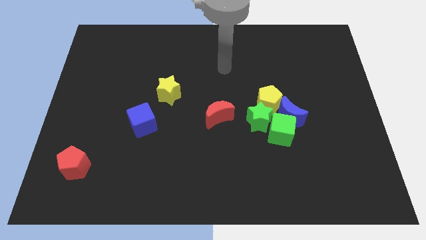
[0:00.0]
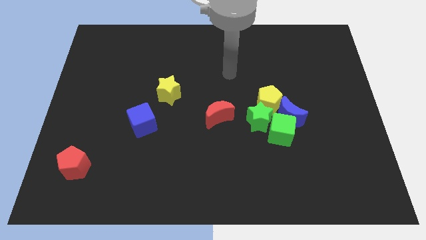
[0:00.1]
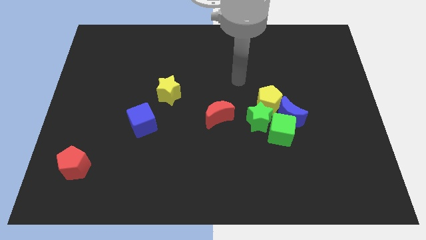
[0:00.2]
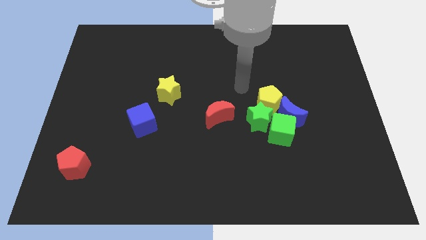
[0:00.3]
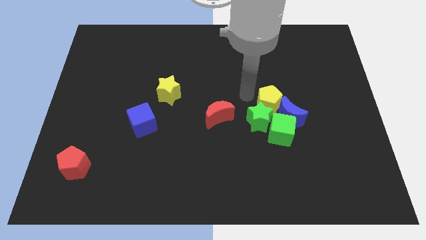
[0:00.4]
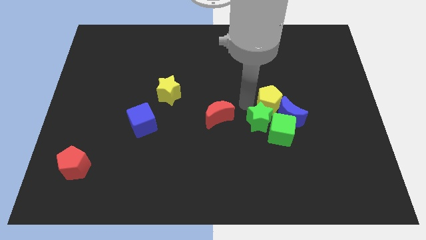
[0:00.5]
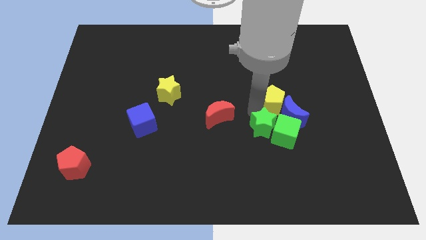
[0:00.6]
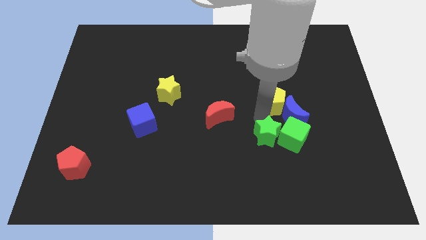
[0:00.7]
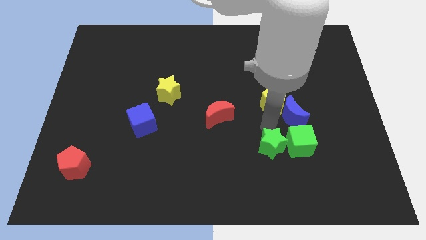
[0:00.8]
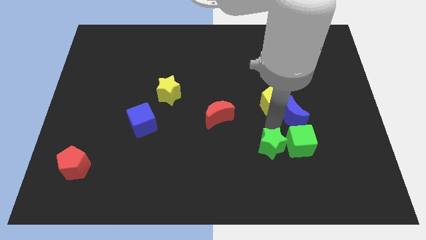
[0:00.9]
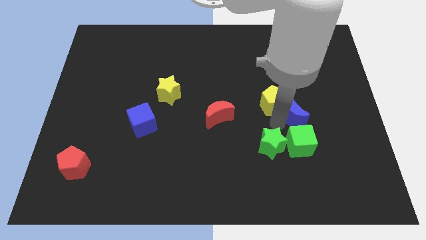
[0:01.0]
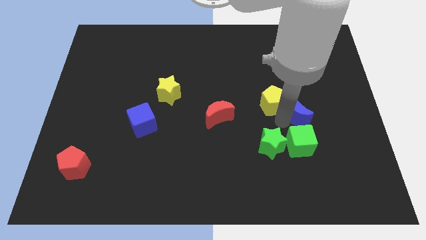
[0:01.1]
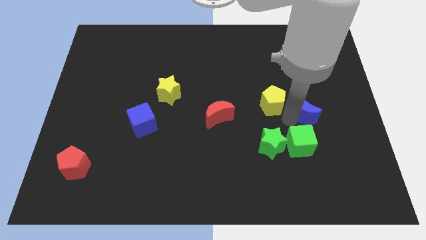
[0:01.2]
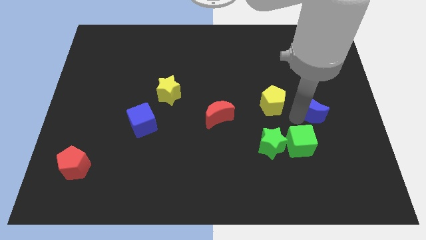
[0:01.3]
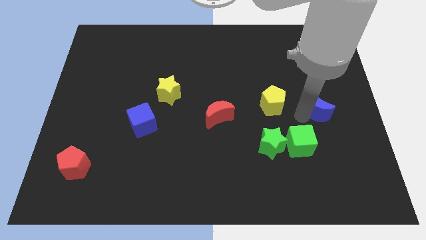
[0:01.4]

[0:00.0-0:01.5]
separate the blue moon from the green cube, yellow pentagon, and green star

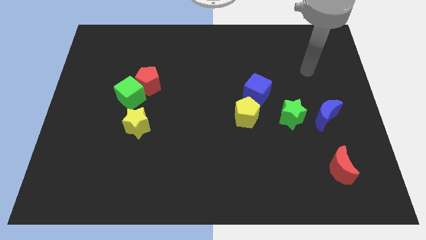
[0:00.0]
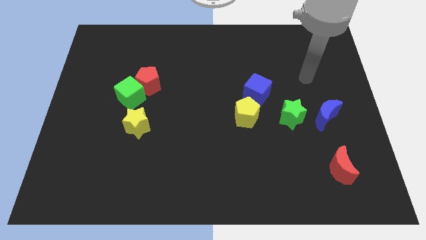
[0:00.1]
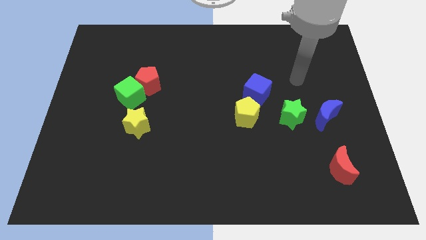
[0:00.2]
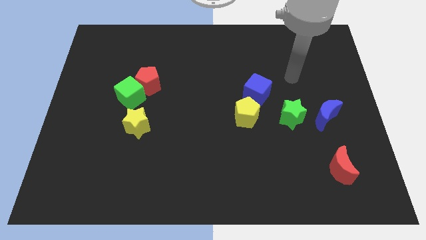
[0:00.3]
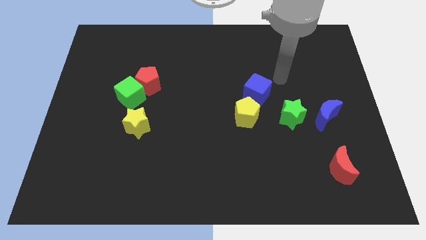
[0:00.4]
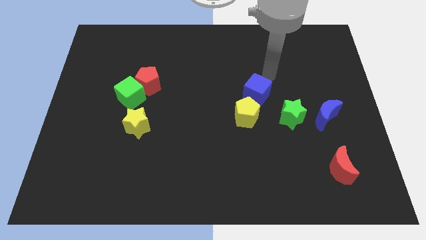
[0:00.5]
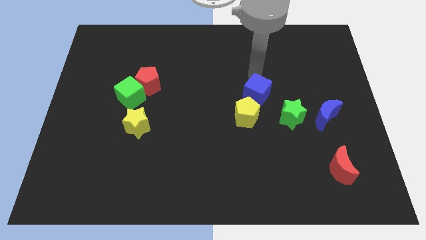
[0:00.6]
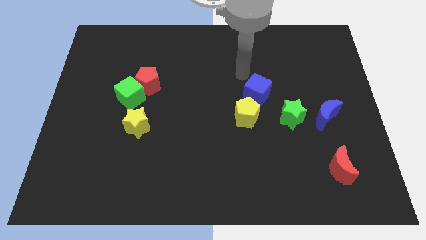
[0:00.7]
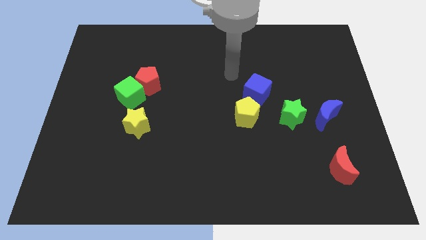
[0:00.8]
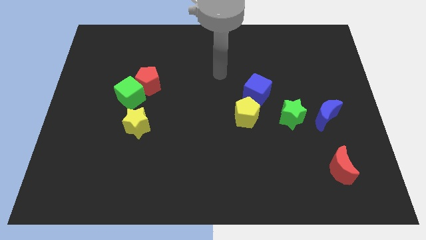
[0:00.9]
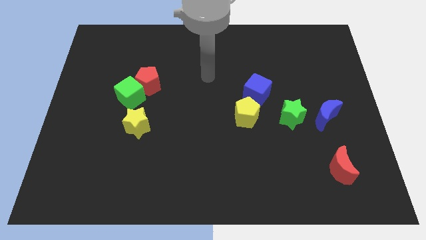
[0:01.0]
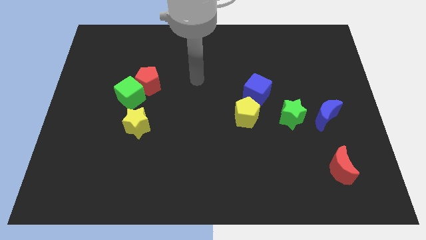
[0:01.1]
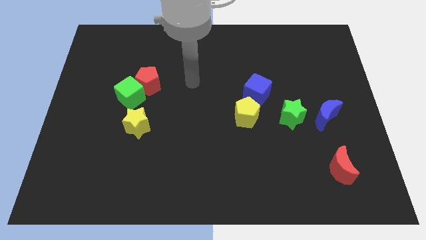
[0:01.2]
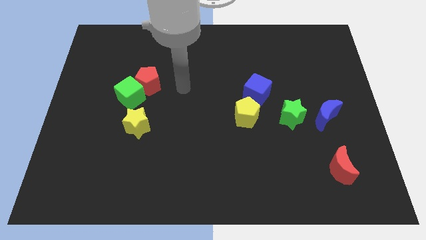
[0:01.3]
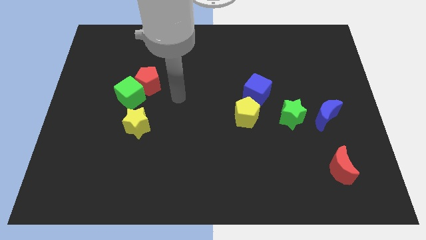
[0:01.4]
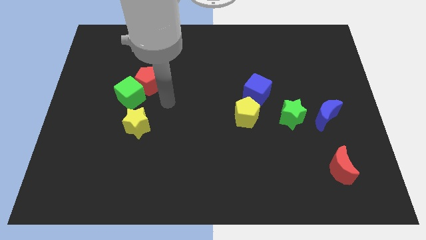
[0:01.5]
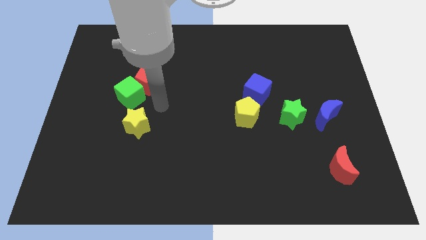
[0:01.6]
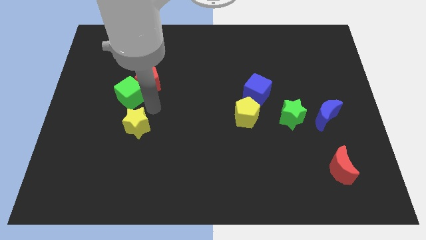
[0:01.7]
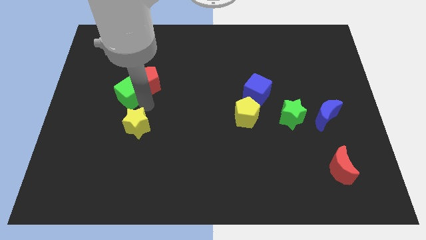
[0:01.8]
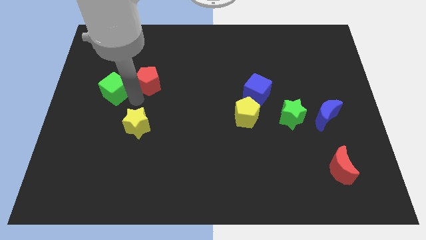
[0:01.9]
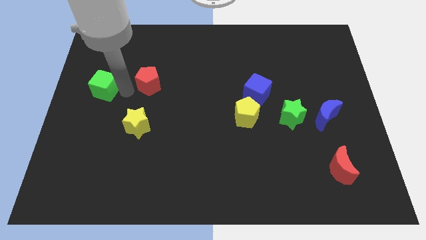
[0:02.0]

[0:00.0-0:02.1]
move the red pentagon away from the green cube

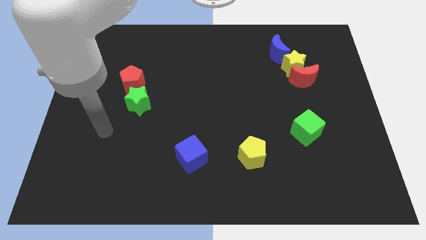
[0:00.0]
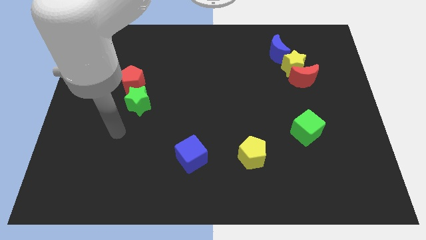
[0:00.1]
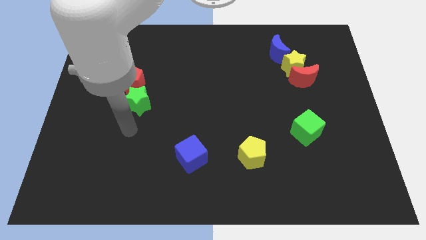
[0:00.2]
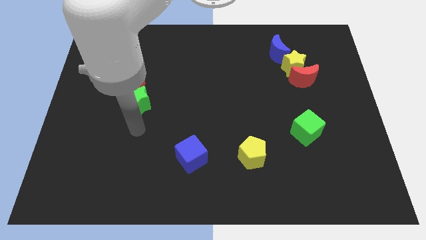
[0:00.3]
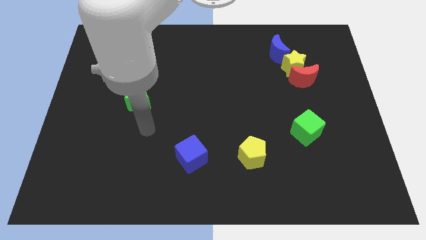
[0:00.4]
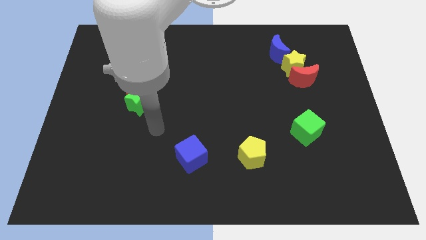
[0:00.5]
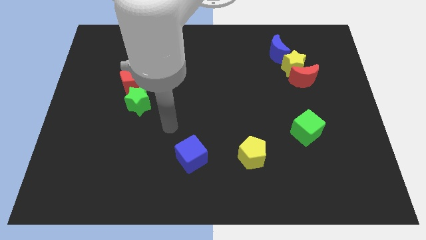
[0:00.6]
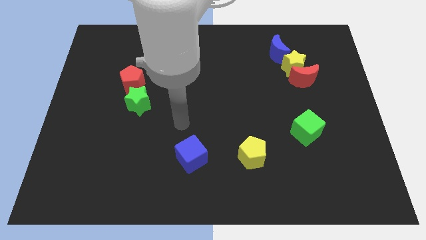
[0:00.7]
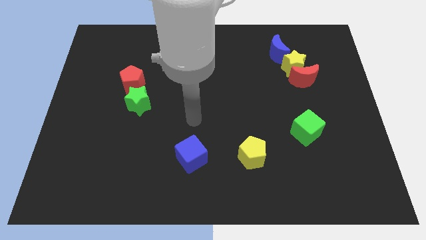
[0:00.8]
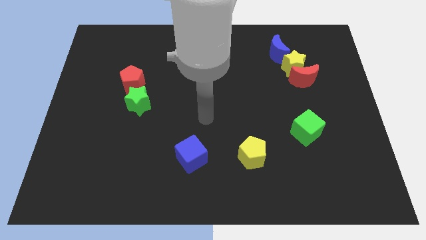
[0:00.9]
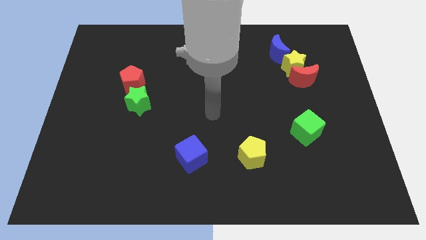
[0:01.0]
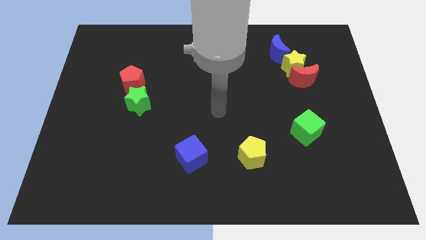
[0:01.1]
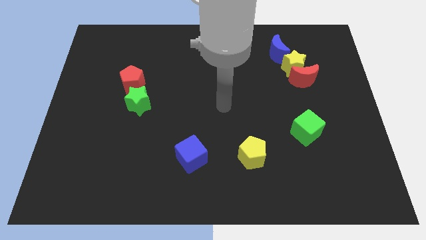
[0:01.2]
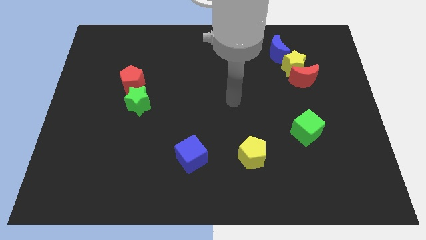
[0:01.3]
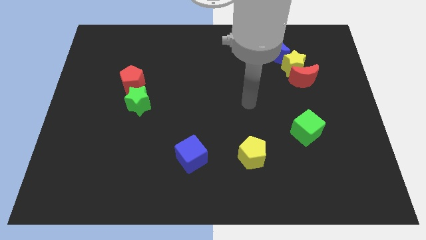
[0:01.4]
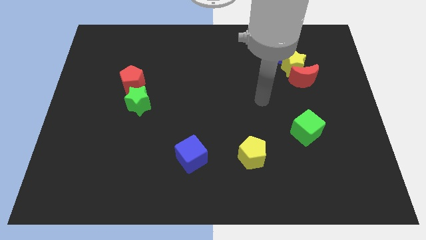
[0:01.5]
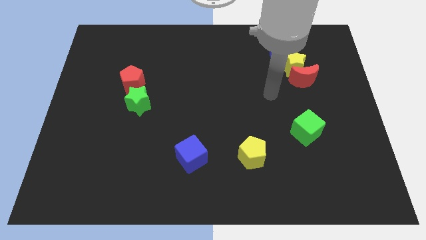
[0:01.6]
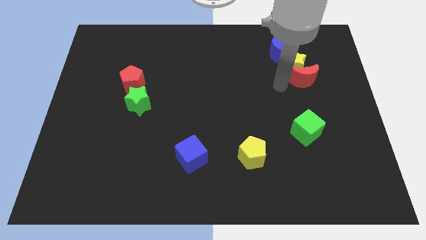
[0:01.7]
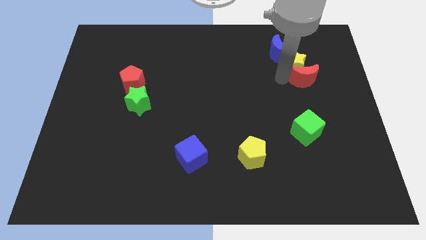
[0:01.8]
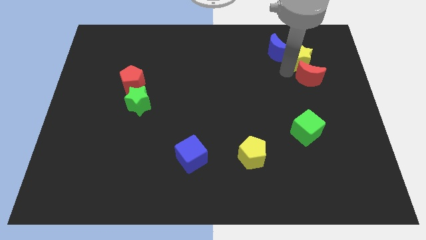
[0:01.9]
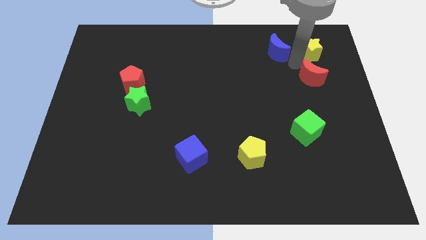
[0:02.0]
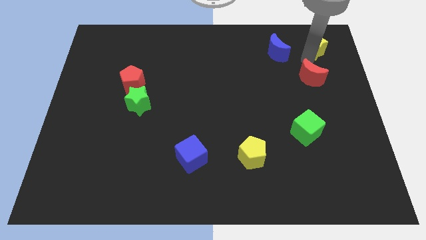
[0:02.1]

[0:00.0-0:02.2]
separate the red moon from the yellow star

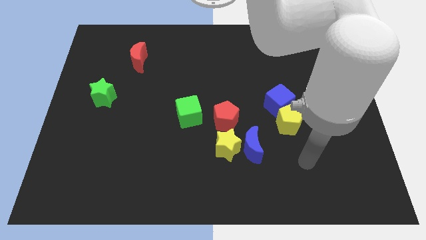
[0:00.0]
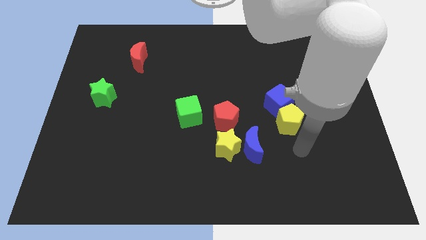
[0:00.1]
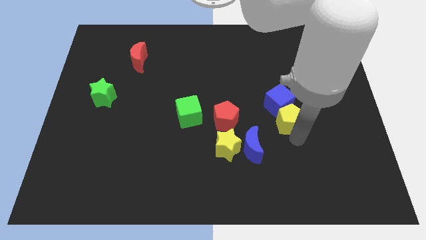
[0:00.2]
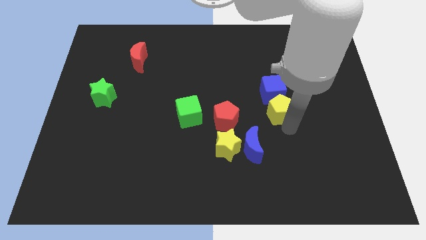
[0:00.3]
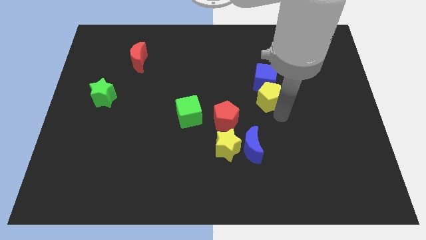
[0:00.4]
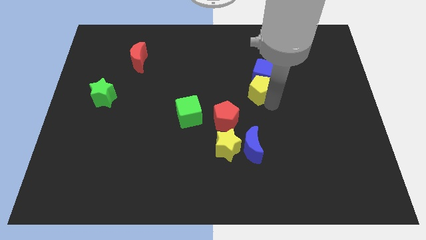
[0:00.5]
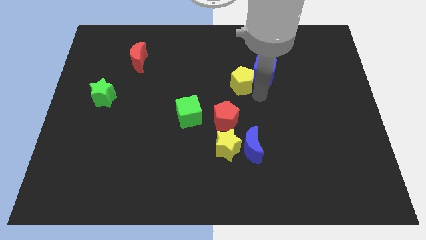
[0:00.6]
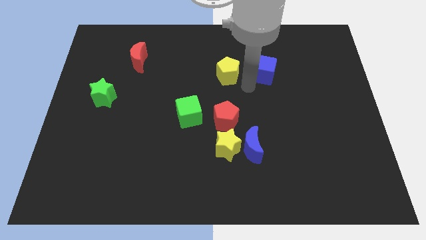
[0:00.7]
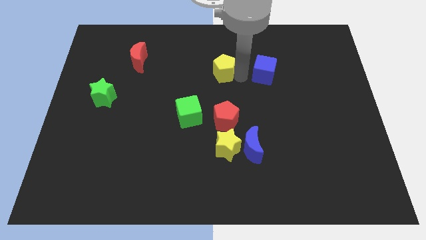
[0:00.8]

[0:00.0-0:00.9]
pull the blue cube apart from the yellow pentagon

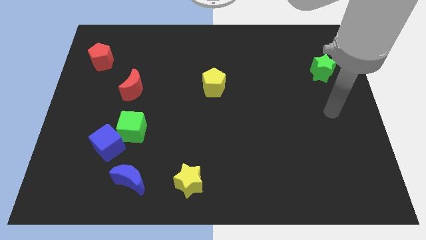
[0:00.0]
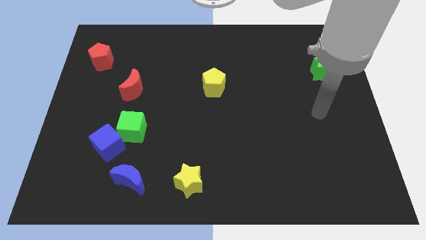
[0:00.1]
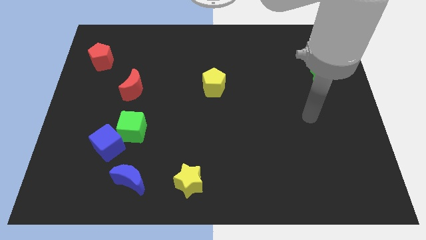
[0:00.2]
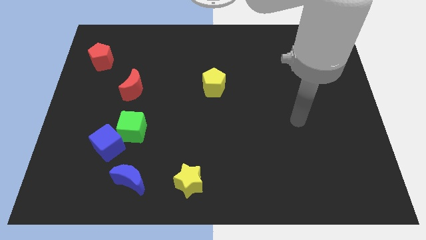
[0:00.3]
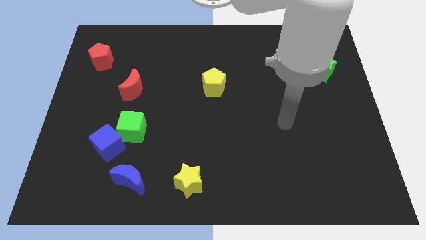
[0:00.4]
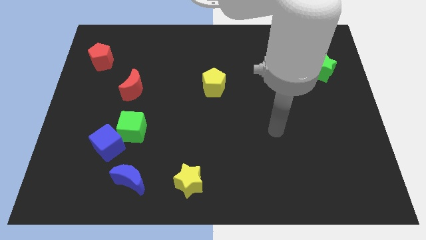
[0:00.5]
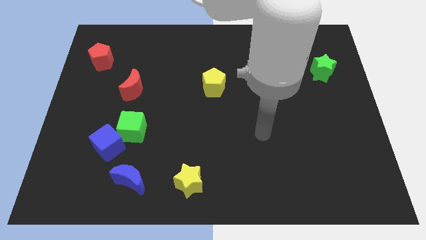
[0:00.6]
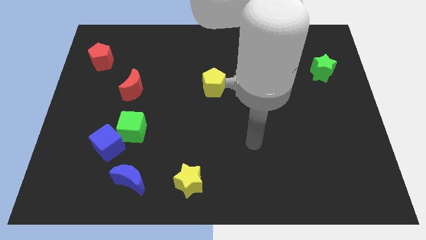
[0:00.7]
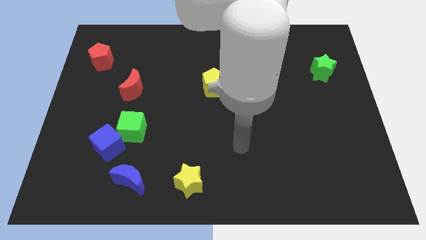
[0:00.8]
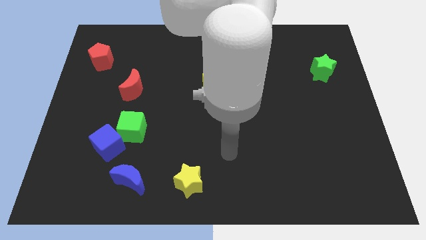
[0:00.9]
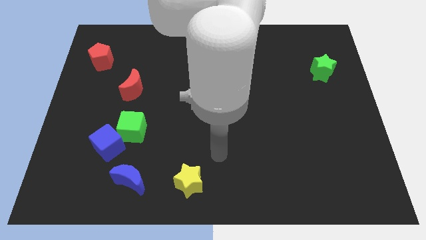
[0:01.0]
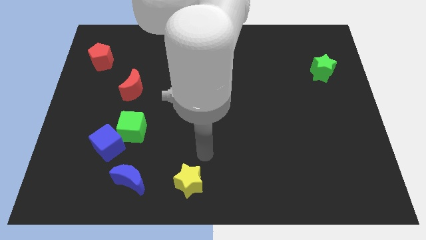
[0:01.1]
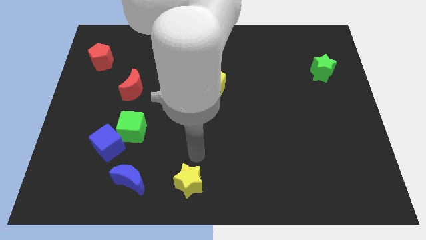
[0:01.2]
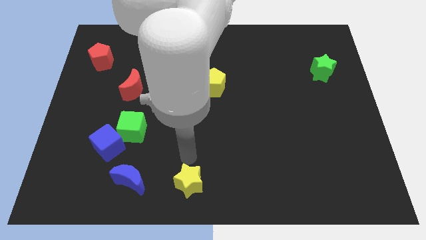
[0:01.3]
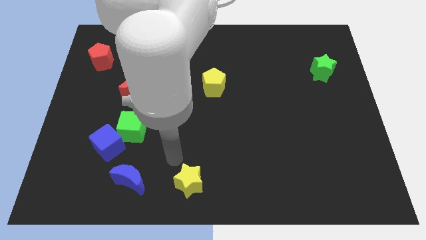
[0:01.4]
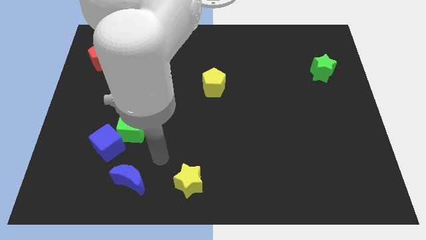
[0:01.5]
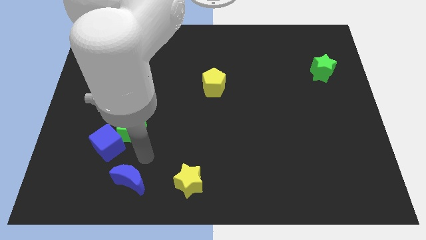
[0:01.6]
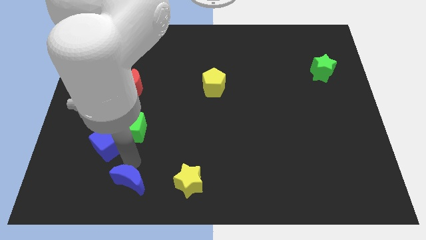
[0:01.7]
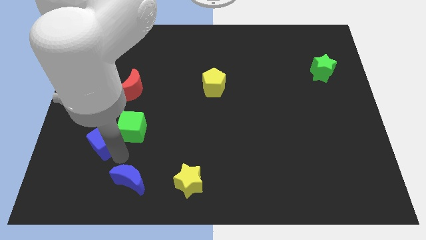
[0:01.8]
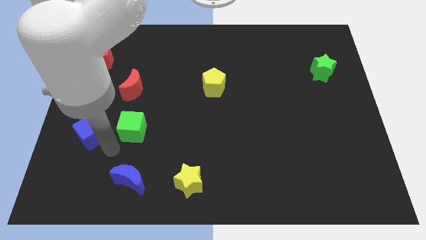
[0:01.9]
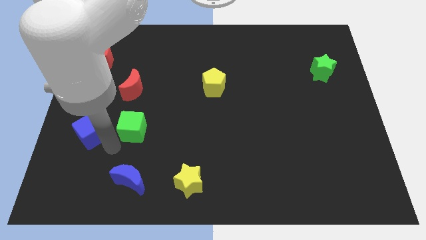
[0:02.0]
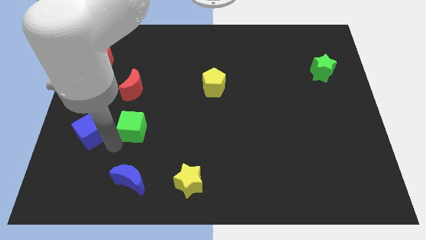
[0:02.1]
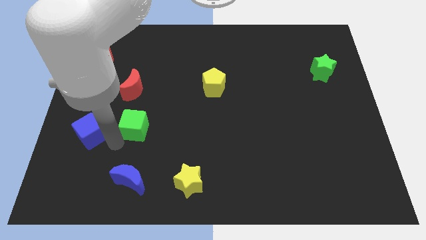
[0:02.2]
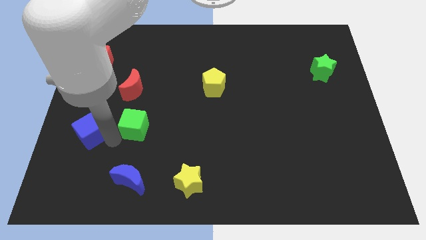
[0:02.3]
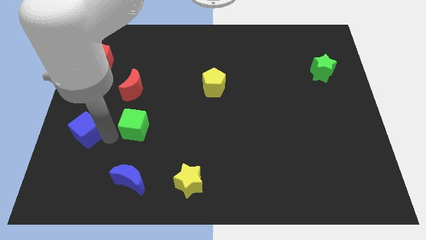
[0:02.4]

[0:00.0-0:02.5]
pull the green cube apart from the blue cube
